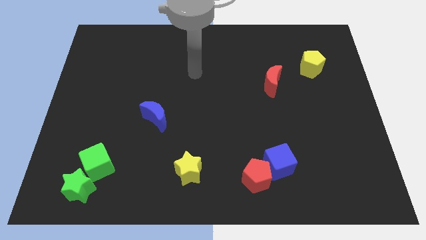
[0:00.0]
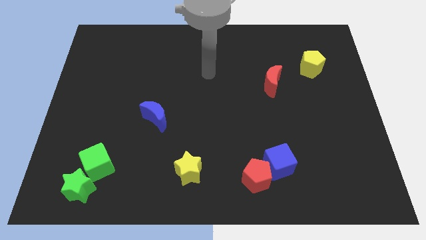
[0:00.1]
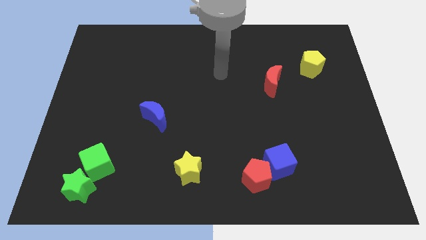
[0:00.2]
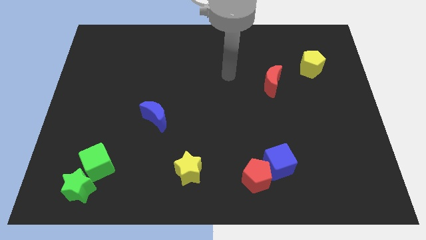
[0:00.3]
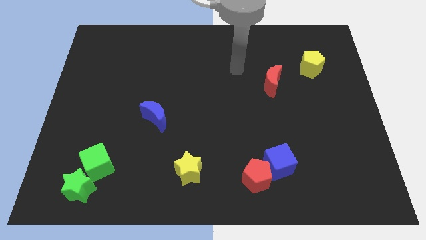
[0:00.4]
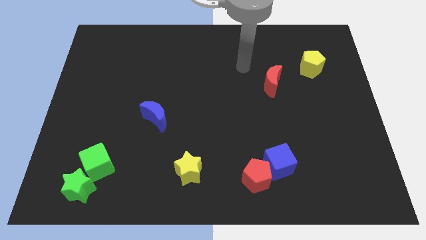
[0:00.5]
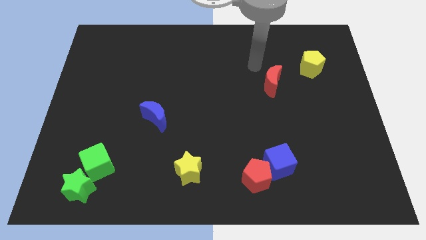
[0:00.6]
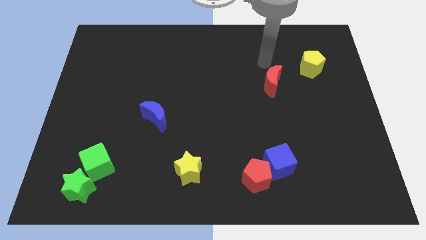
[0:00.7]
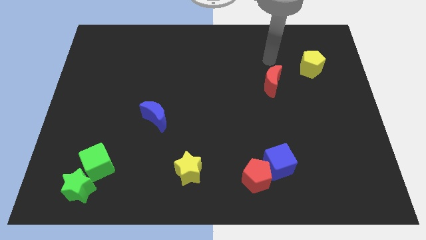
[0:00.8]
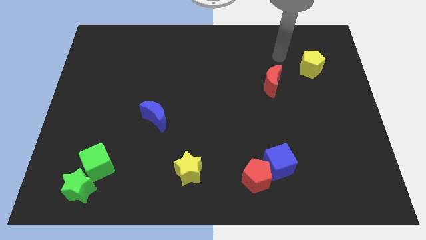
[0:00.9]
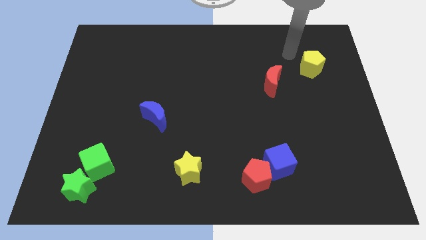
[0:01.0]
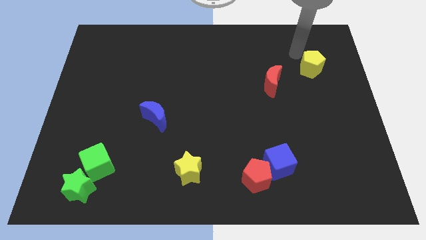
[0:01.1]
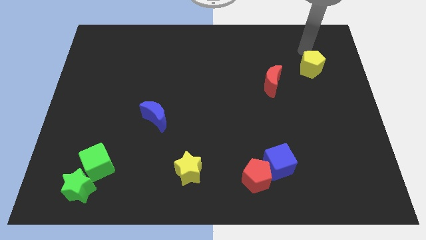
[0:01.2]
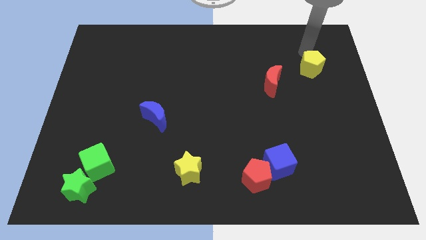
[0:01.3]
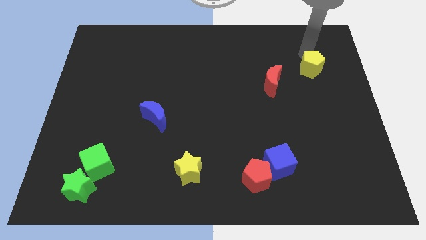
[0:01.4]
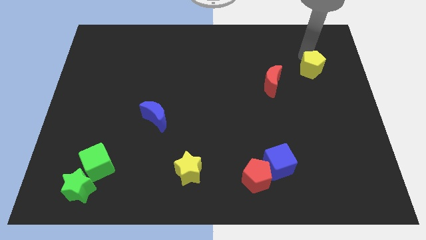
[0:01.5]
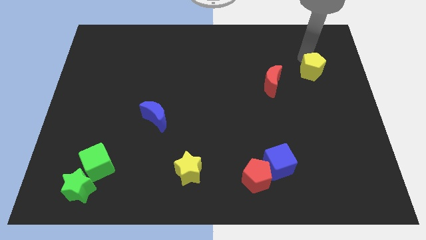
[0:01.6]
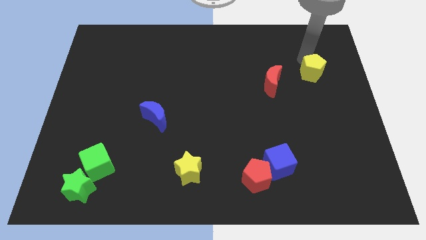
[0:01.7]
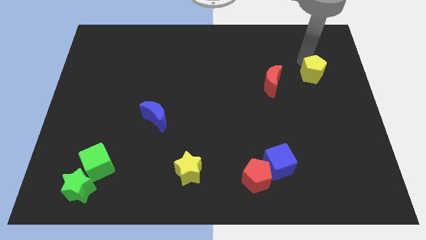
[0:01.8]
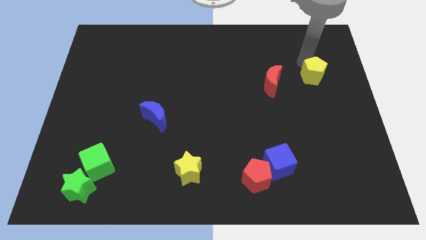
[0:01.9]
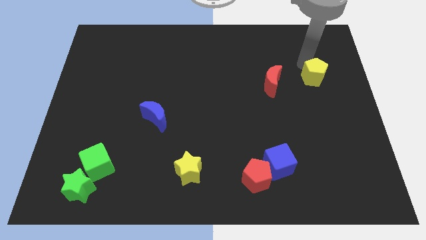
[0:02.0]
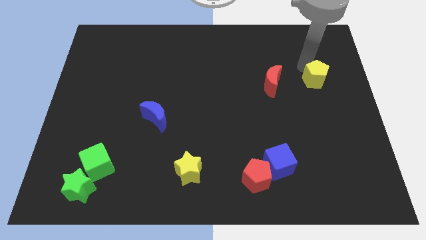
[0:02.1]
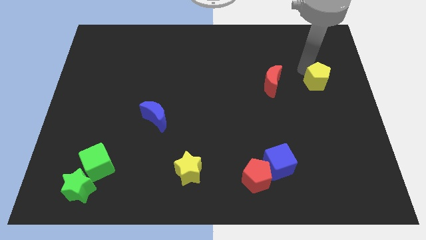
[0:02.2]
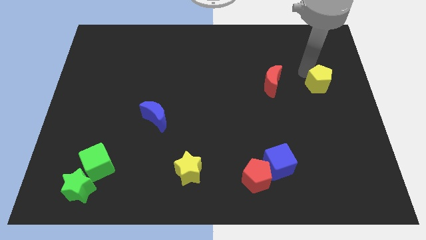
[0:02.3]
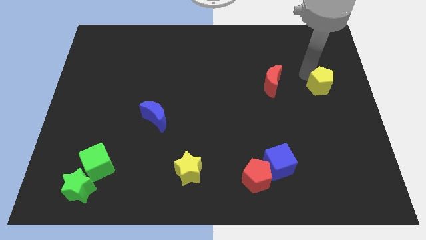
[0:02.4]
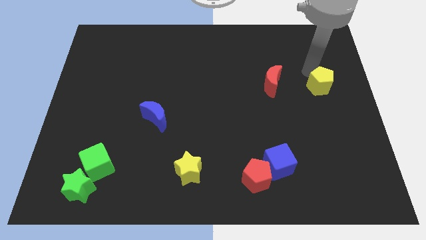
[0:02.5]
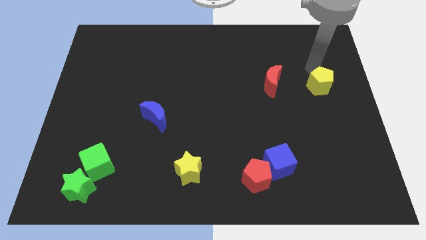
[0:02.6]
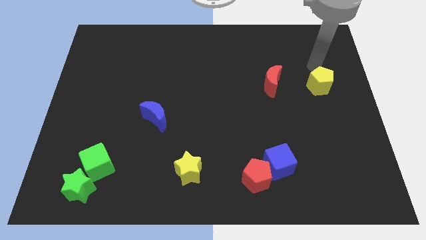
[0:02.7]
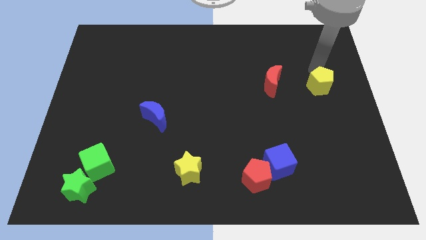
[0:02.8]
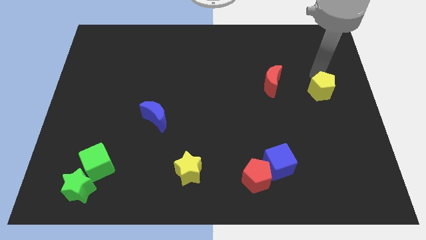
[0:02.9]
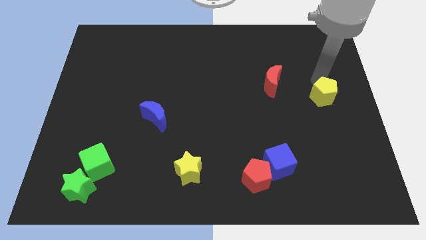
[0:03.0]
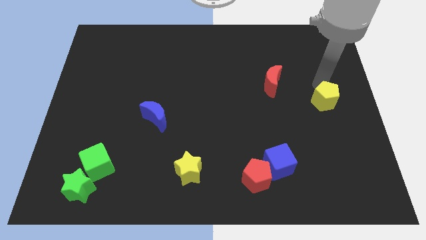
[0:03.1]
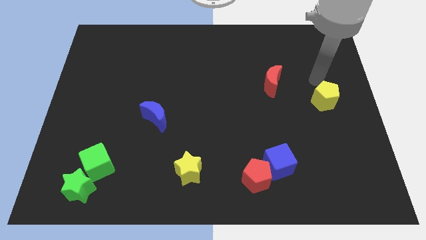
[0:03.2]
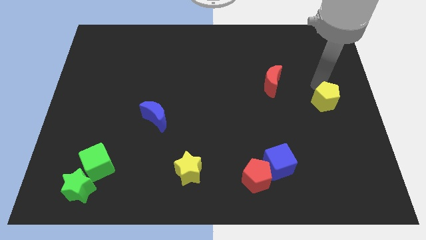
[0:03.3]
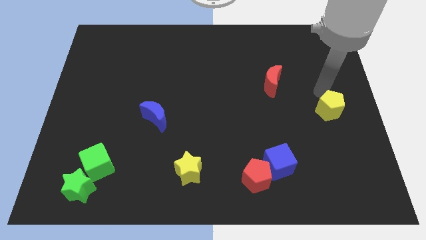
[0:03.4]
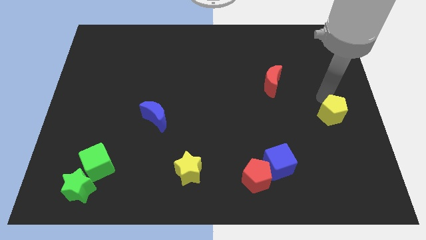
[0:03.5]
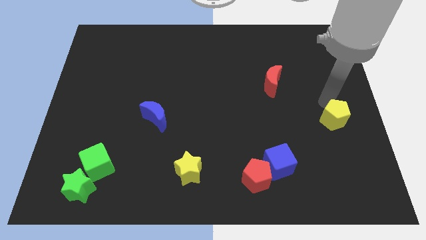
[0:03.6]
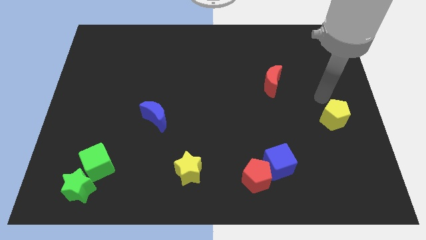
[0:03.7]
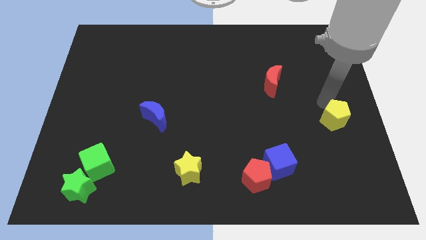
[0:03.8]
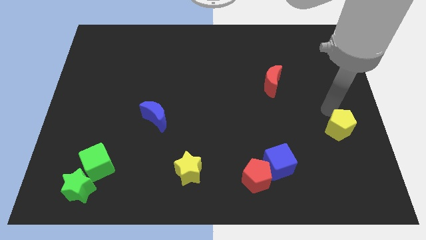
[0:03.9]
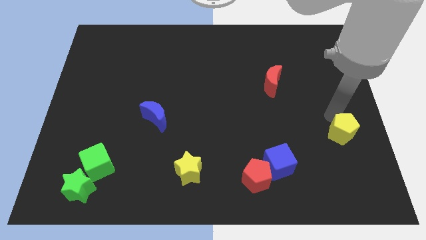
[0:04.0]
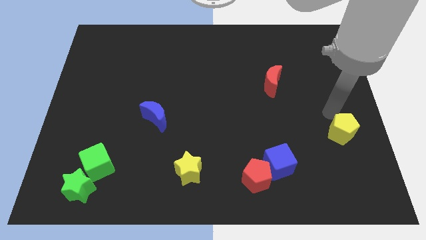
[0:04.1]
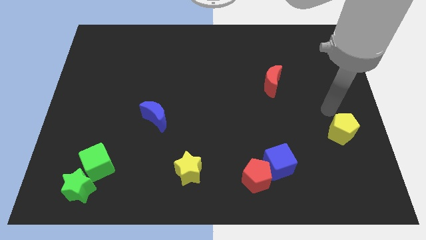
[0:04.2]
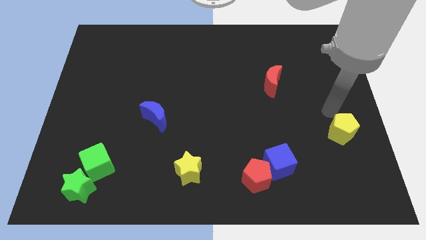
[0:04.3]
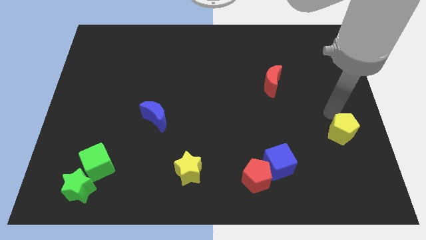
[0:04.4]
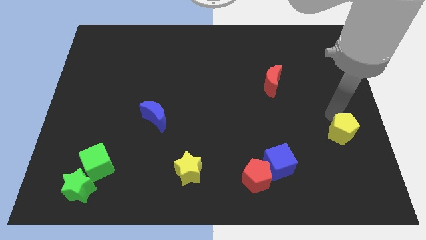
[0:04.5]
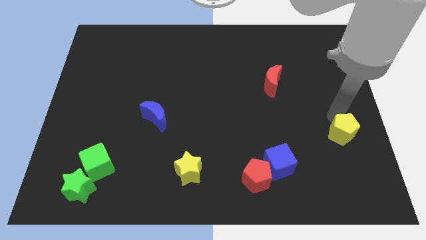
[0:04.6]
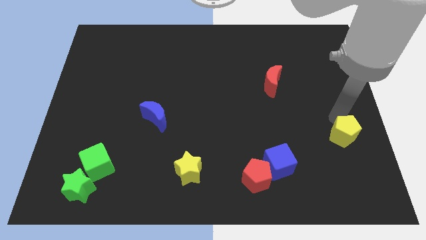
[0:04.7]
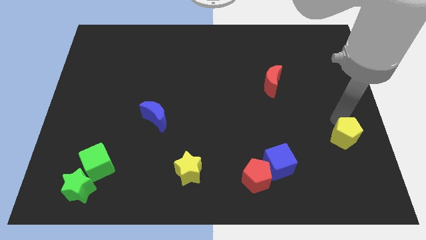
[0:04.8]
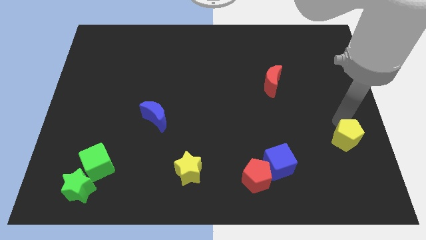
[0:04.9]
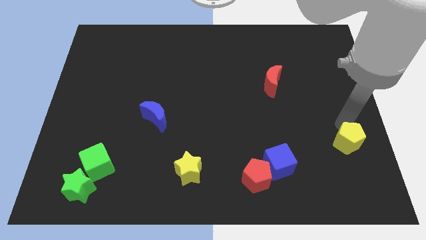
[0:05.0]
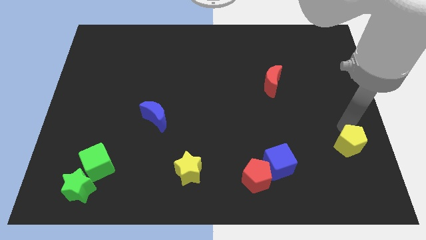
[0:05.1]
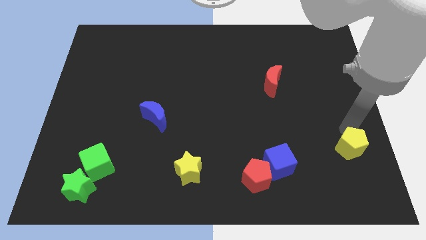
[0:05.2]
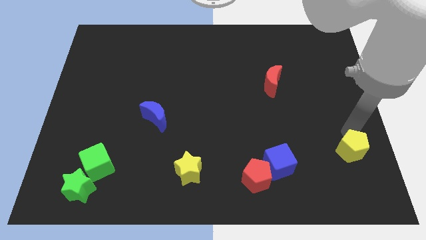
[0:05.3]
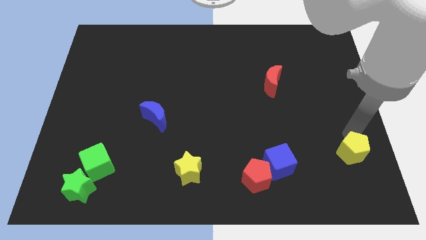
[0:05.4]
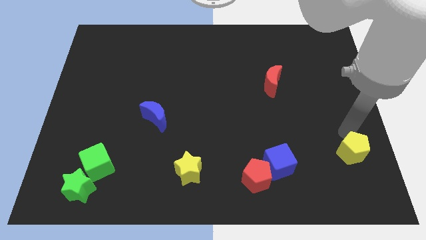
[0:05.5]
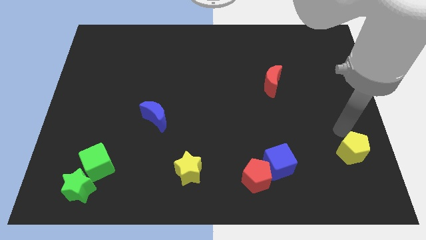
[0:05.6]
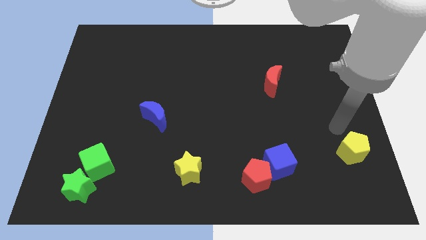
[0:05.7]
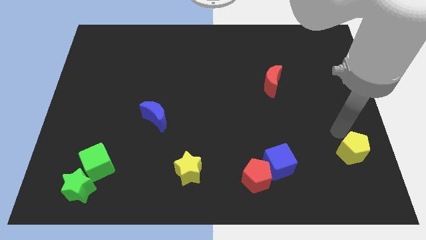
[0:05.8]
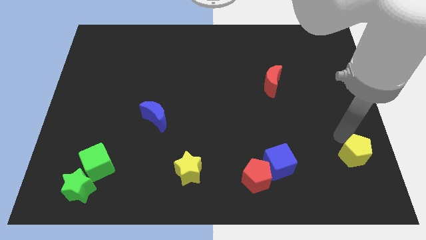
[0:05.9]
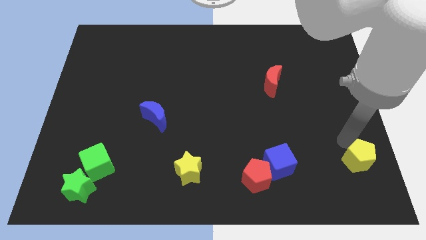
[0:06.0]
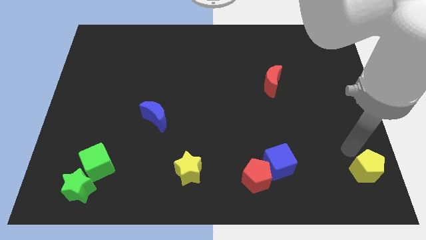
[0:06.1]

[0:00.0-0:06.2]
slide the yellow pentagon to the bottom right of the board

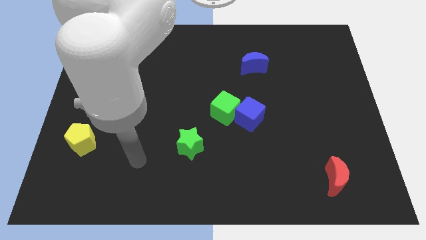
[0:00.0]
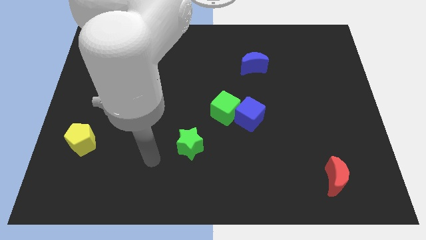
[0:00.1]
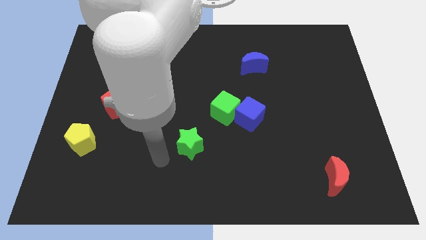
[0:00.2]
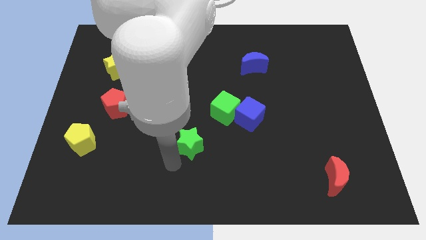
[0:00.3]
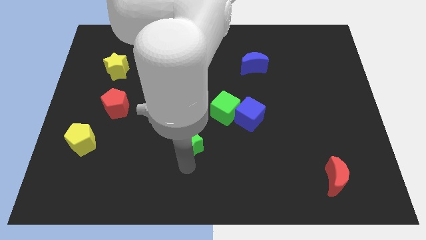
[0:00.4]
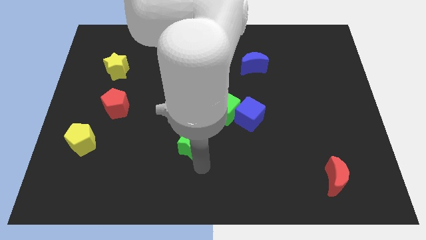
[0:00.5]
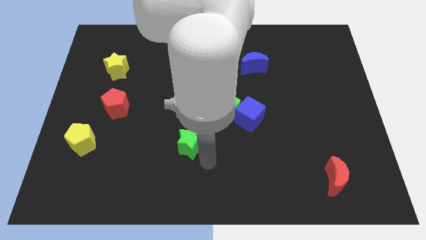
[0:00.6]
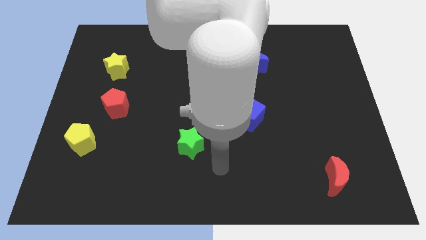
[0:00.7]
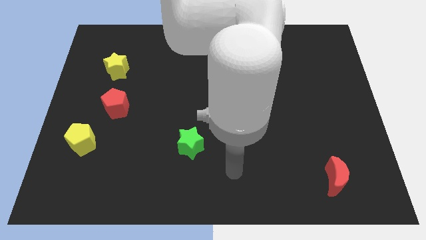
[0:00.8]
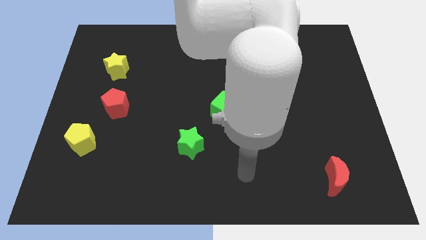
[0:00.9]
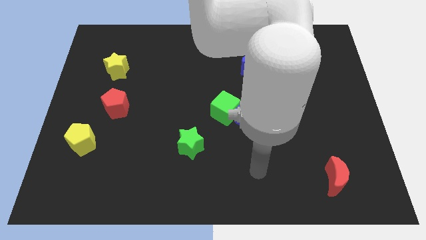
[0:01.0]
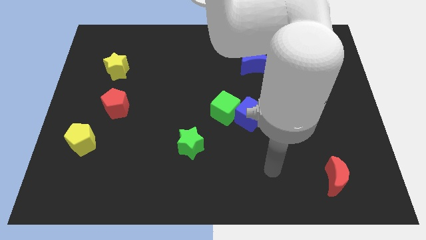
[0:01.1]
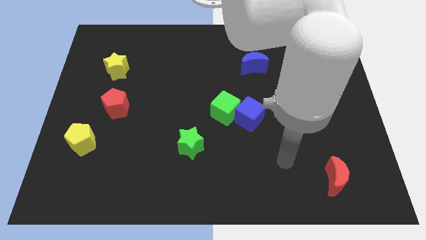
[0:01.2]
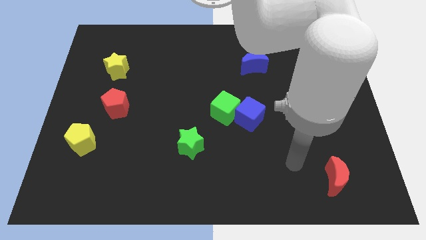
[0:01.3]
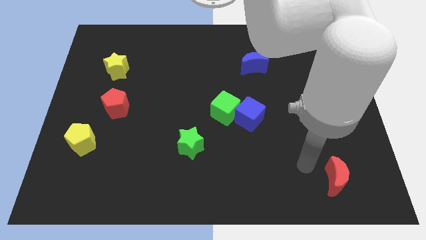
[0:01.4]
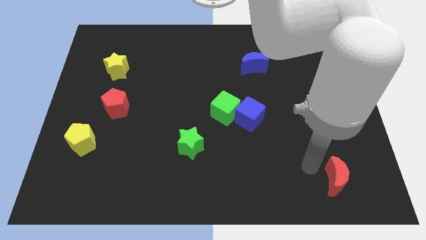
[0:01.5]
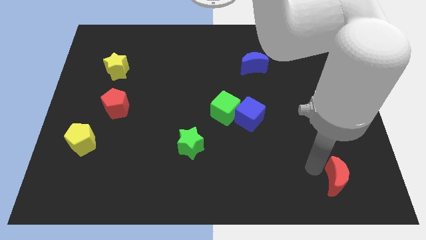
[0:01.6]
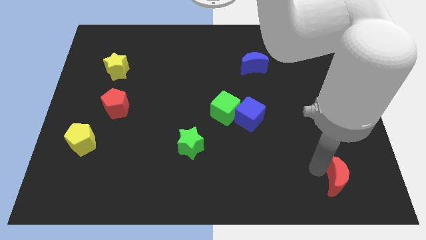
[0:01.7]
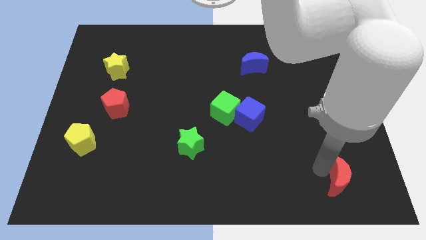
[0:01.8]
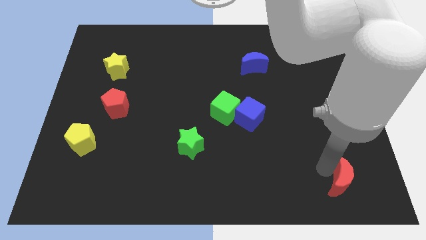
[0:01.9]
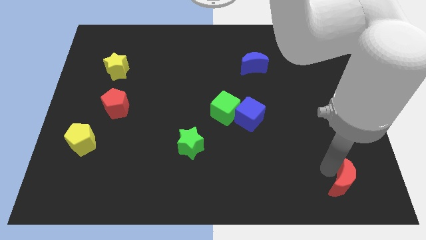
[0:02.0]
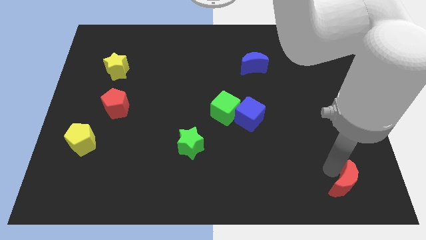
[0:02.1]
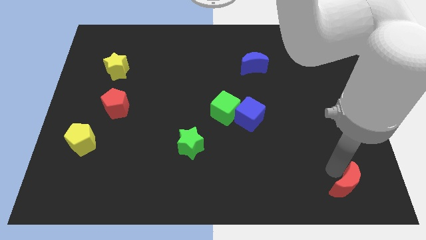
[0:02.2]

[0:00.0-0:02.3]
slide the red moon to the lower right corner
